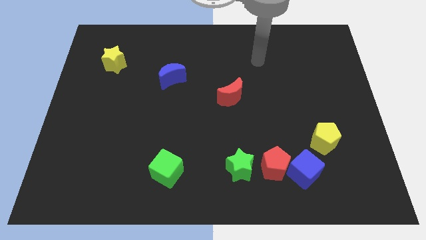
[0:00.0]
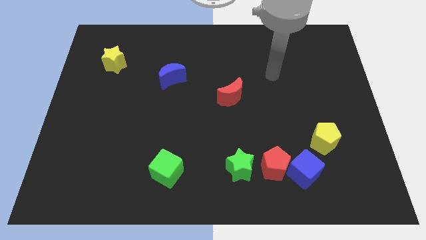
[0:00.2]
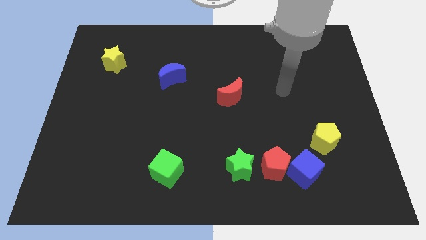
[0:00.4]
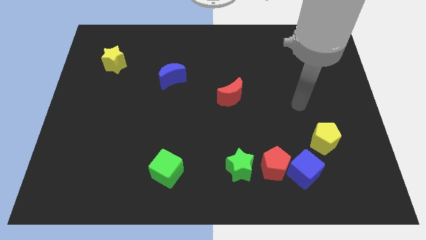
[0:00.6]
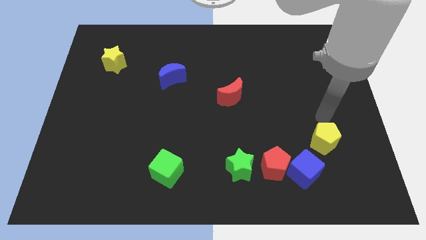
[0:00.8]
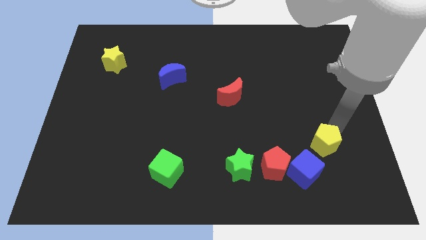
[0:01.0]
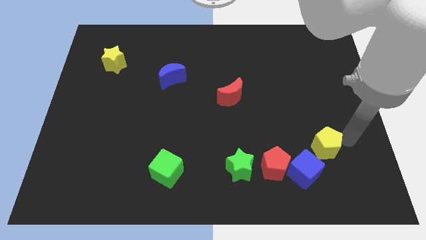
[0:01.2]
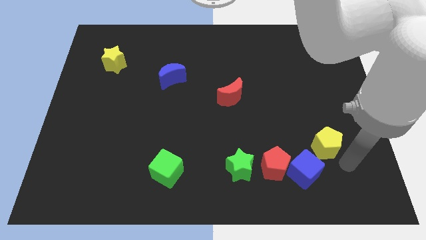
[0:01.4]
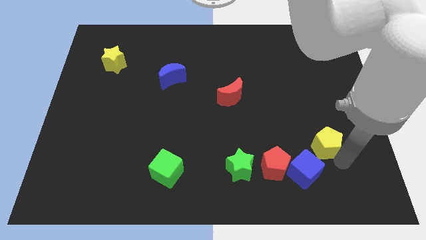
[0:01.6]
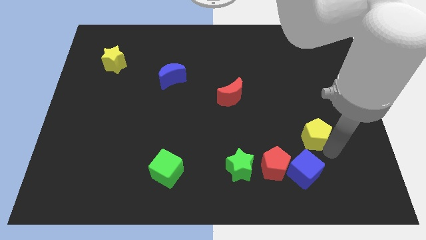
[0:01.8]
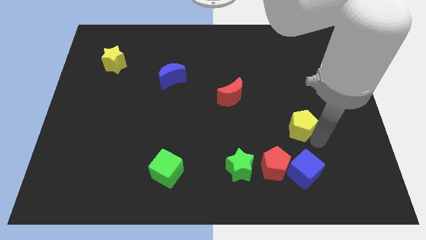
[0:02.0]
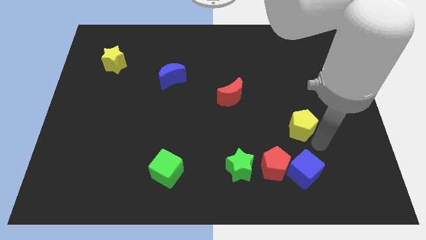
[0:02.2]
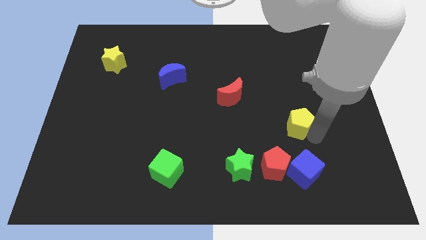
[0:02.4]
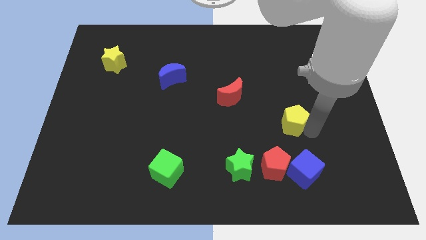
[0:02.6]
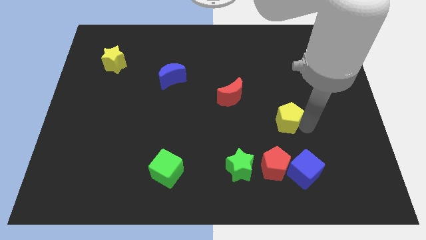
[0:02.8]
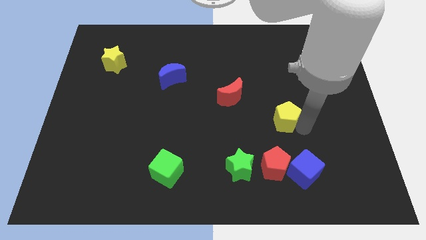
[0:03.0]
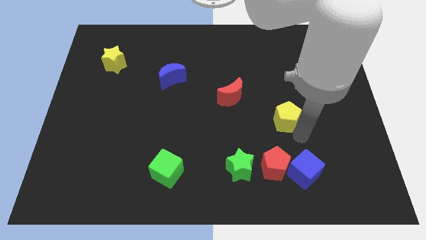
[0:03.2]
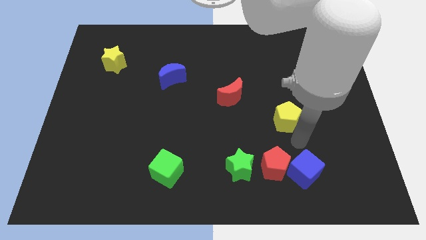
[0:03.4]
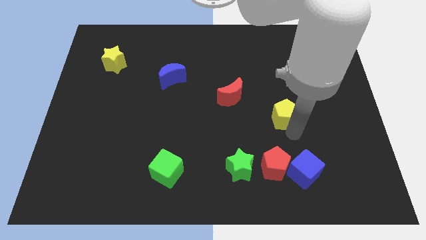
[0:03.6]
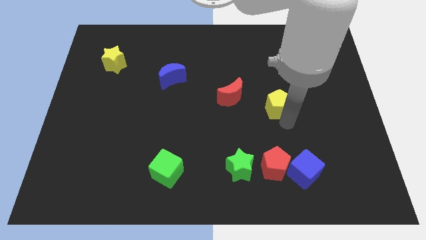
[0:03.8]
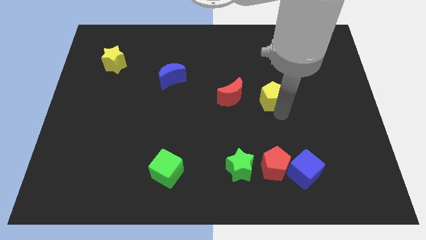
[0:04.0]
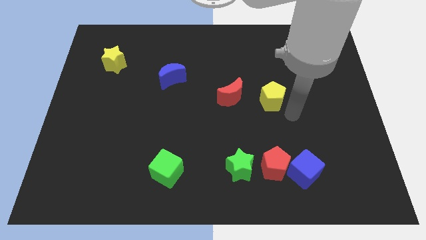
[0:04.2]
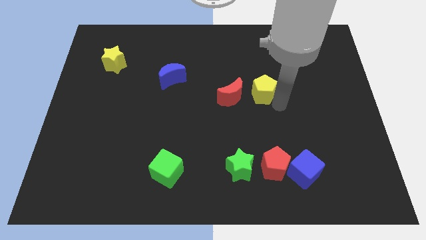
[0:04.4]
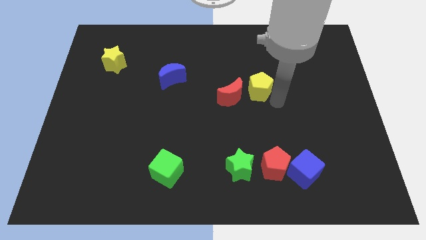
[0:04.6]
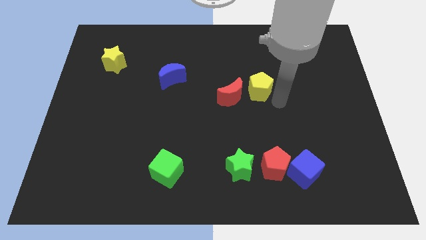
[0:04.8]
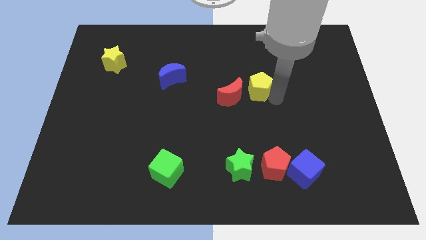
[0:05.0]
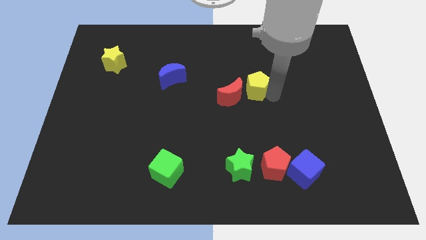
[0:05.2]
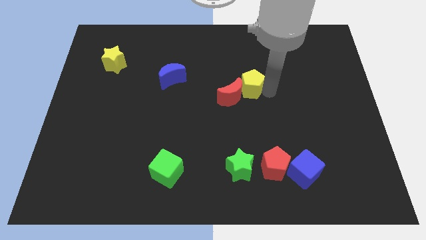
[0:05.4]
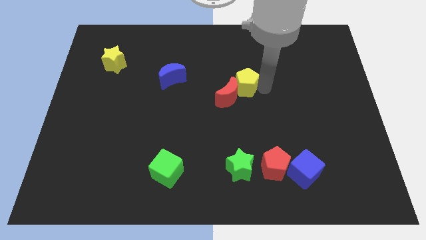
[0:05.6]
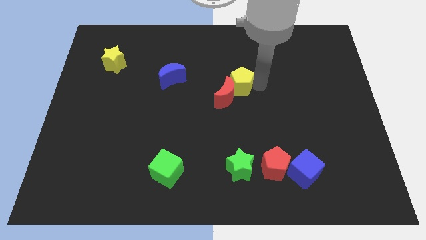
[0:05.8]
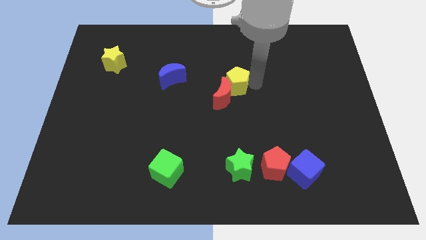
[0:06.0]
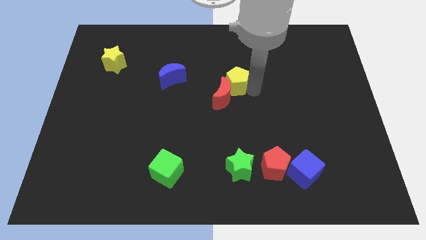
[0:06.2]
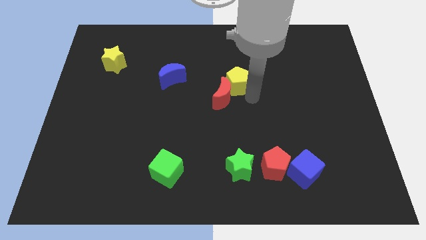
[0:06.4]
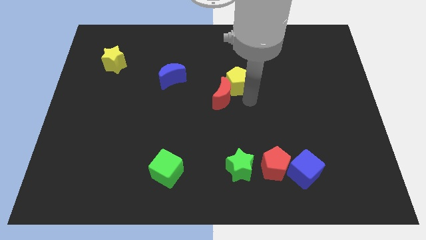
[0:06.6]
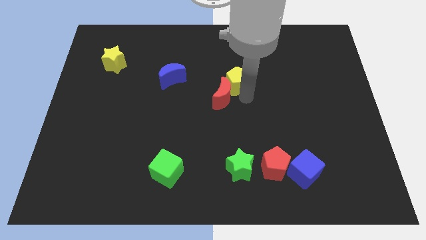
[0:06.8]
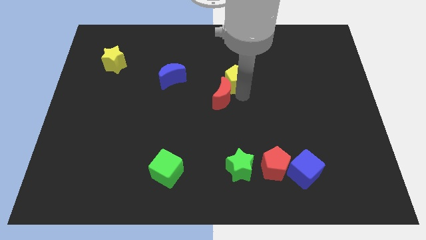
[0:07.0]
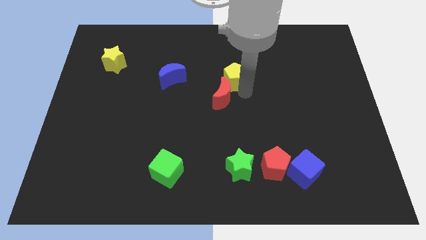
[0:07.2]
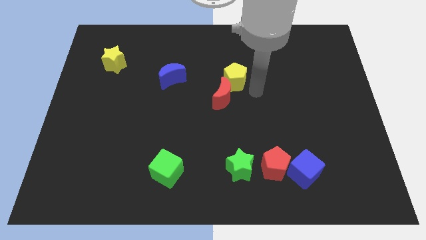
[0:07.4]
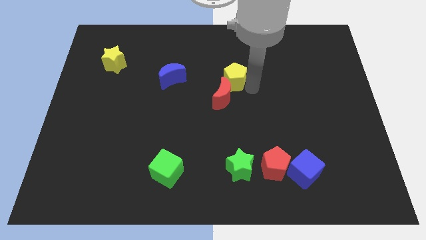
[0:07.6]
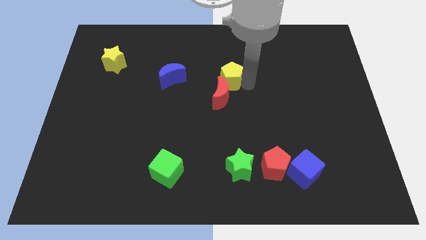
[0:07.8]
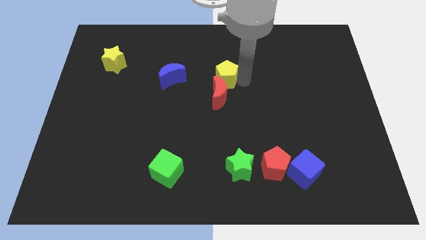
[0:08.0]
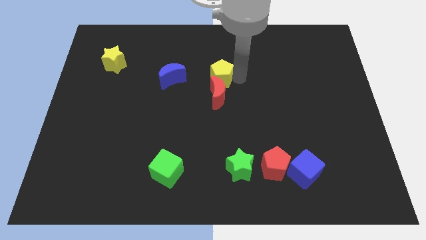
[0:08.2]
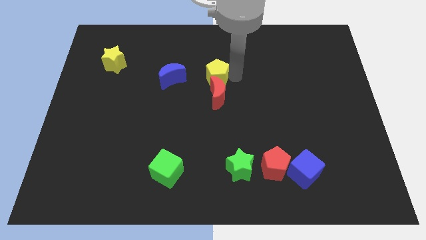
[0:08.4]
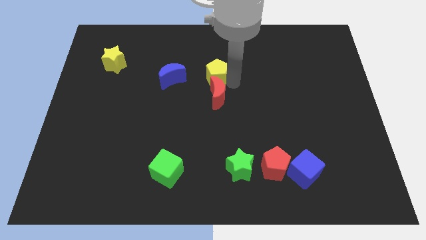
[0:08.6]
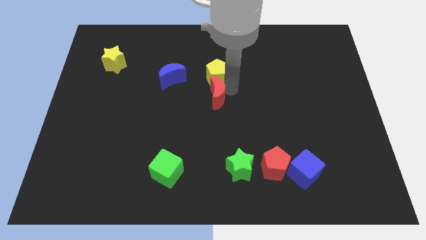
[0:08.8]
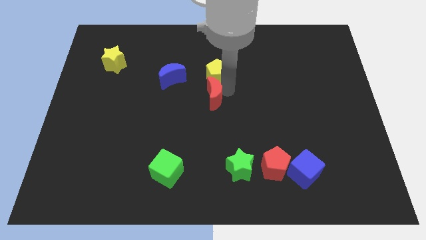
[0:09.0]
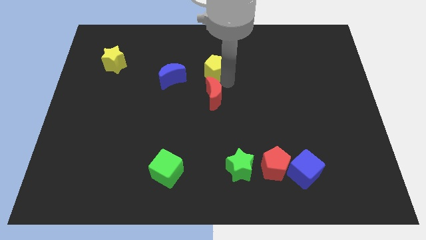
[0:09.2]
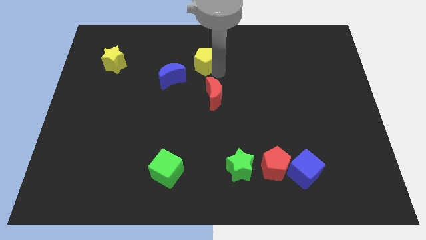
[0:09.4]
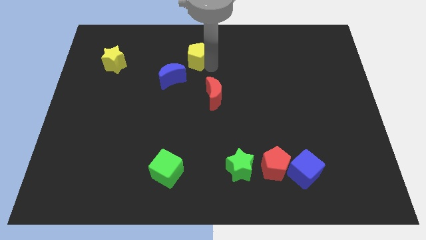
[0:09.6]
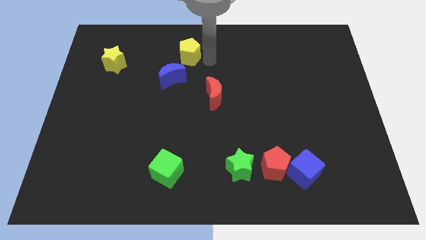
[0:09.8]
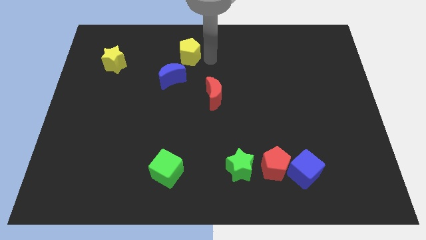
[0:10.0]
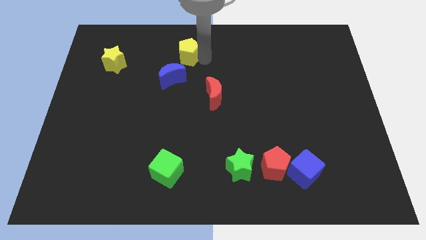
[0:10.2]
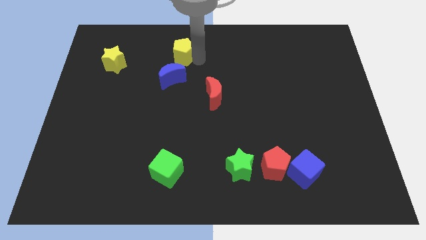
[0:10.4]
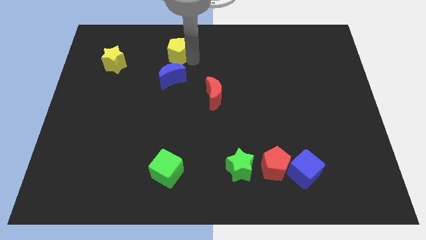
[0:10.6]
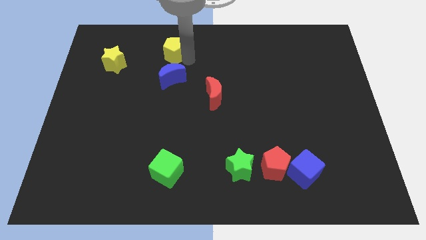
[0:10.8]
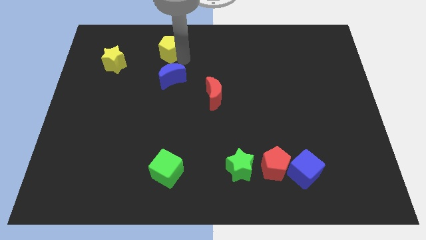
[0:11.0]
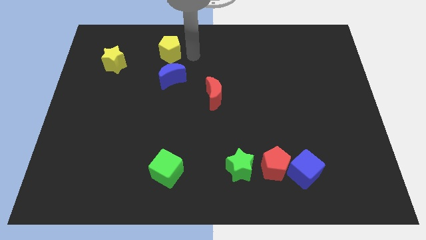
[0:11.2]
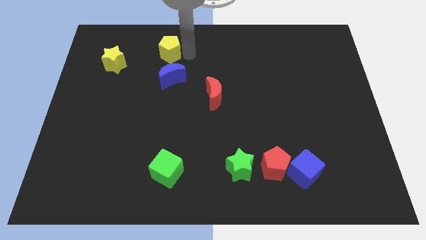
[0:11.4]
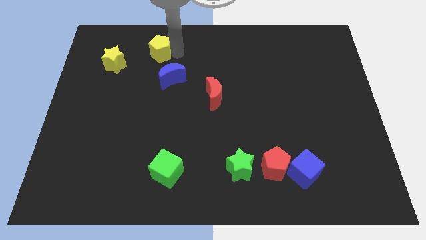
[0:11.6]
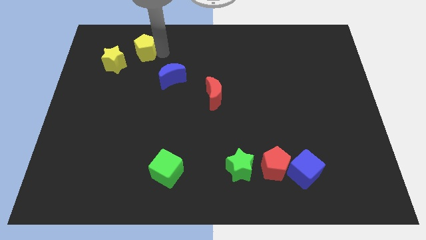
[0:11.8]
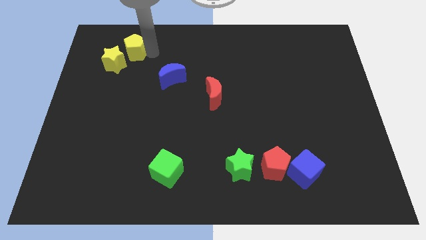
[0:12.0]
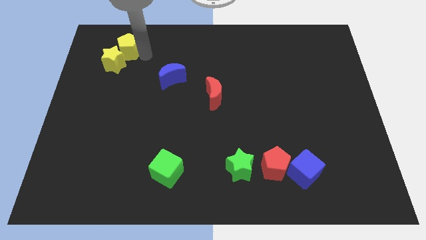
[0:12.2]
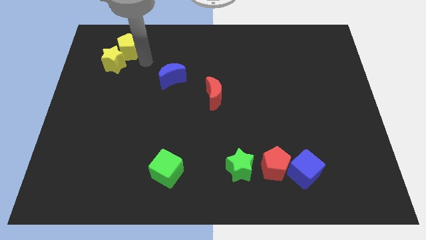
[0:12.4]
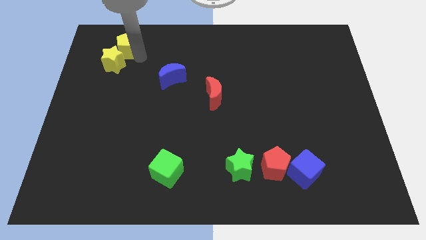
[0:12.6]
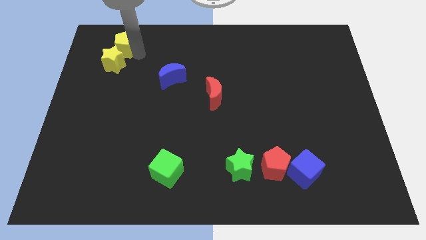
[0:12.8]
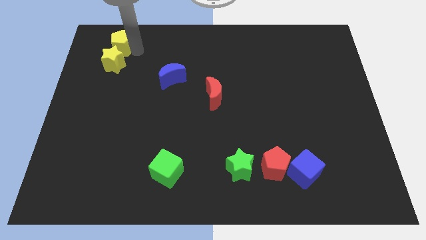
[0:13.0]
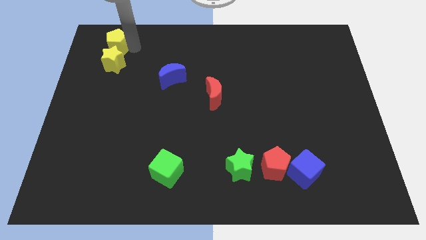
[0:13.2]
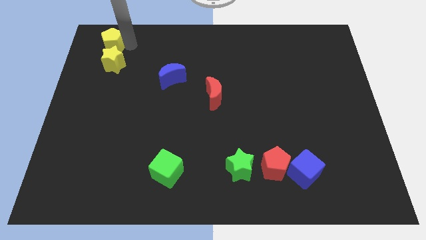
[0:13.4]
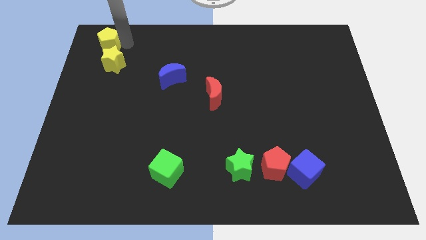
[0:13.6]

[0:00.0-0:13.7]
move the yellow pentagon to the top left corner
